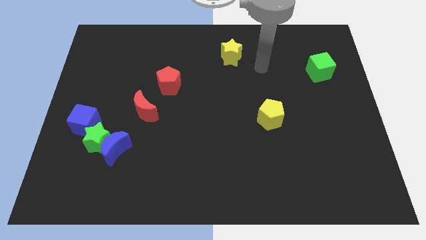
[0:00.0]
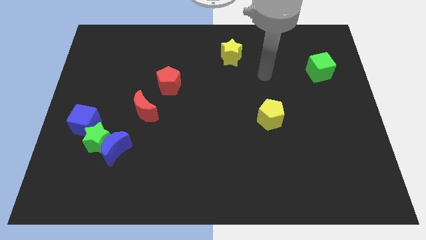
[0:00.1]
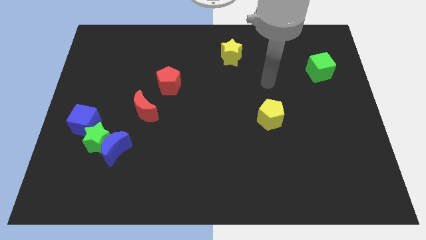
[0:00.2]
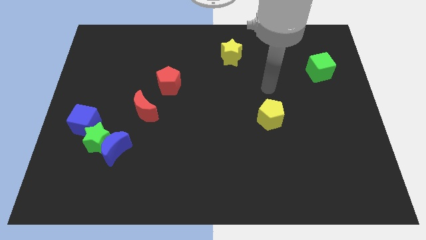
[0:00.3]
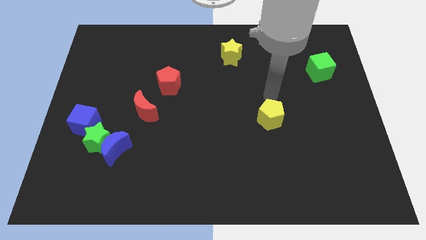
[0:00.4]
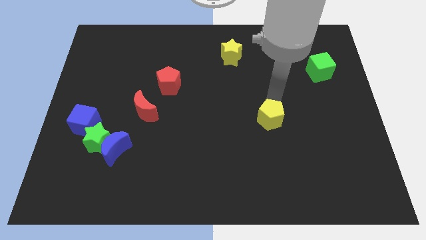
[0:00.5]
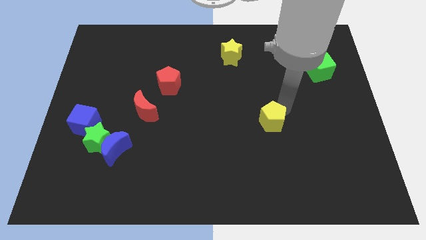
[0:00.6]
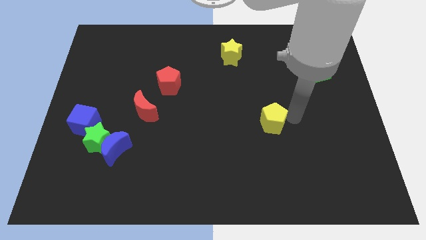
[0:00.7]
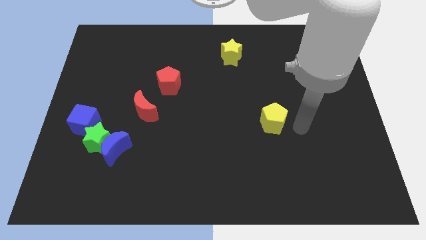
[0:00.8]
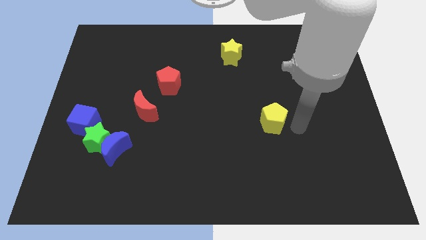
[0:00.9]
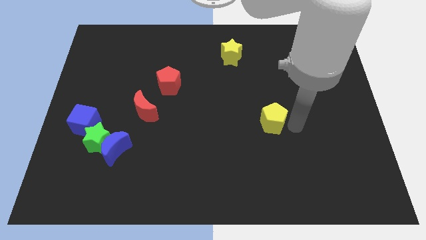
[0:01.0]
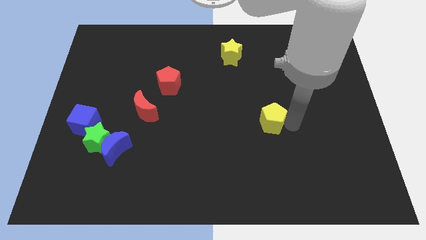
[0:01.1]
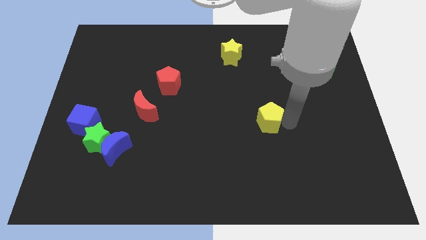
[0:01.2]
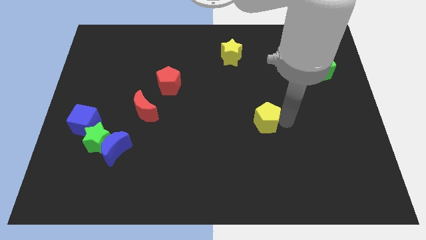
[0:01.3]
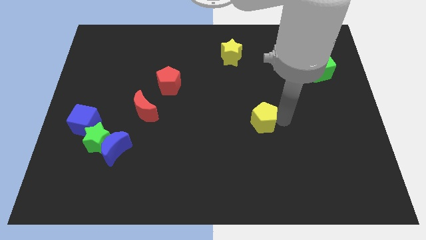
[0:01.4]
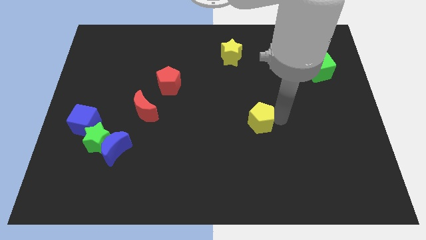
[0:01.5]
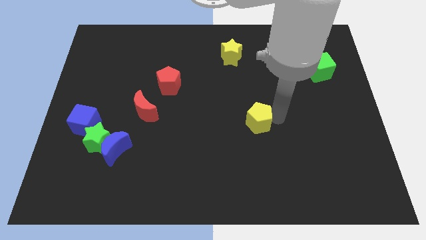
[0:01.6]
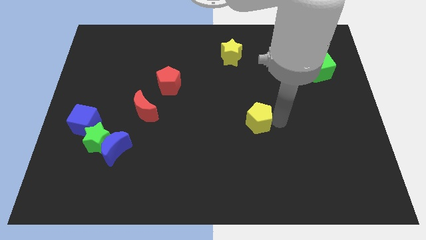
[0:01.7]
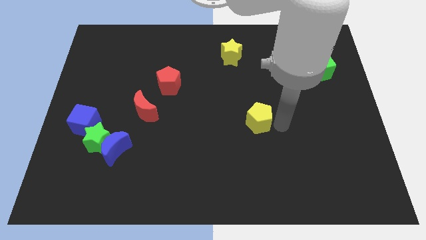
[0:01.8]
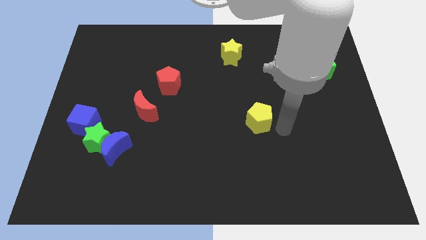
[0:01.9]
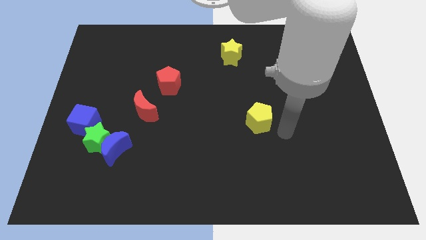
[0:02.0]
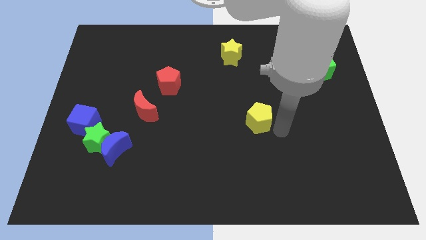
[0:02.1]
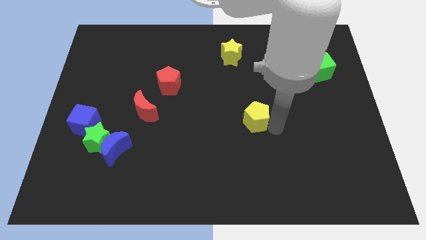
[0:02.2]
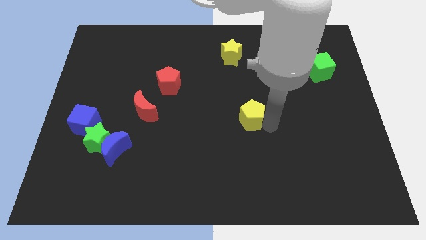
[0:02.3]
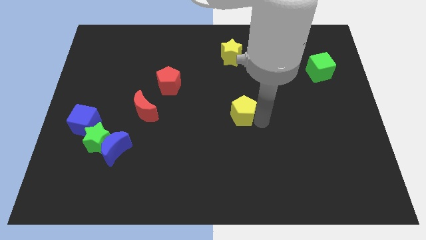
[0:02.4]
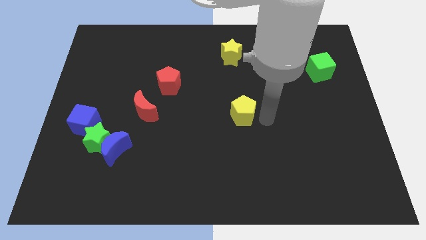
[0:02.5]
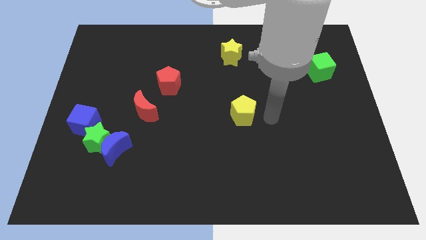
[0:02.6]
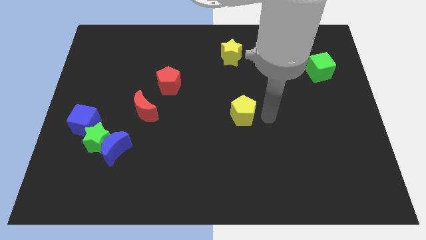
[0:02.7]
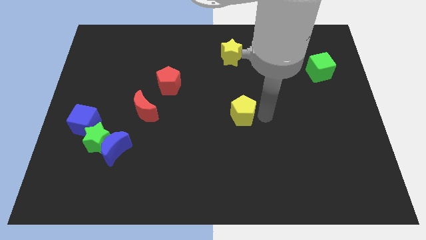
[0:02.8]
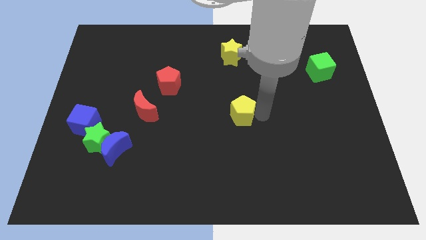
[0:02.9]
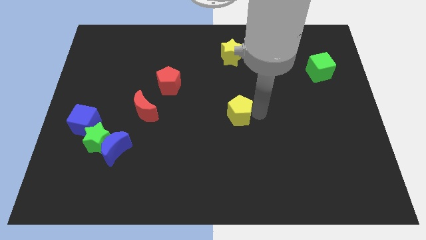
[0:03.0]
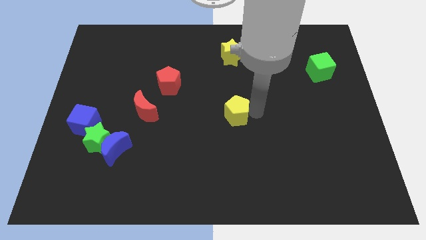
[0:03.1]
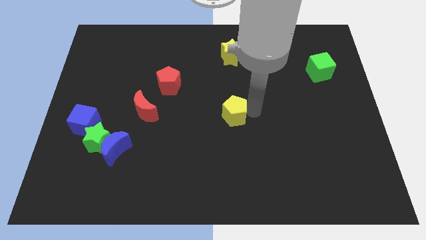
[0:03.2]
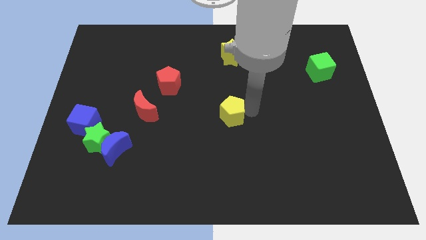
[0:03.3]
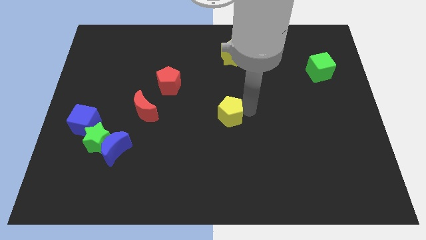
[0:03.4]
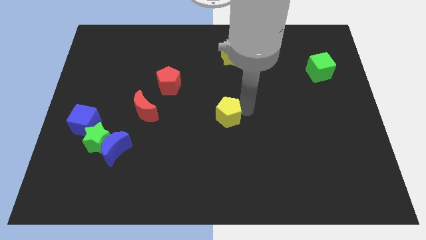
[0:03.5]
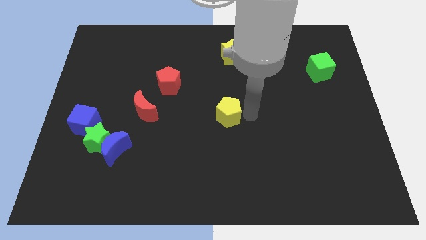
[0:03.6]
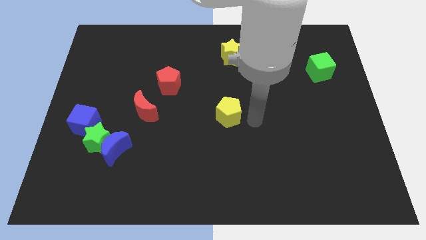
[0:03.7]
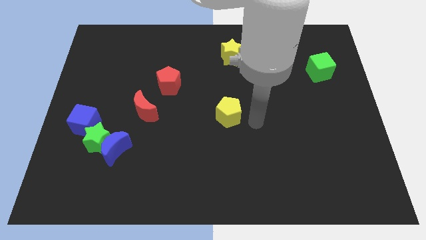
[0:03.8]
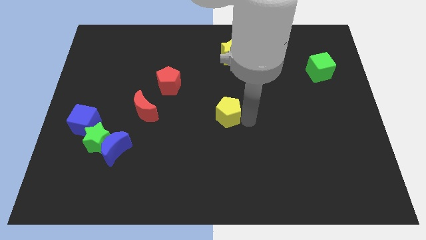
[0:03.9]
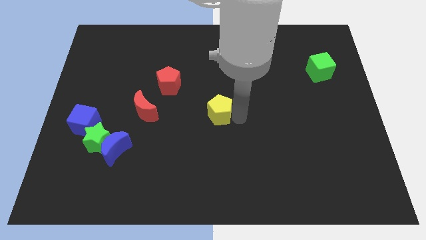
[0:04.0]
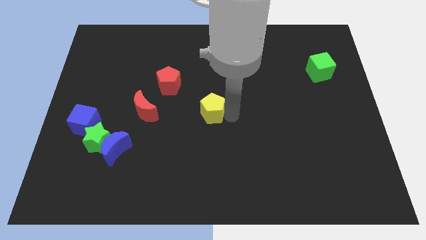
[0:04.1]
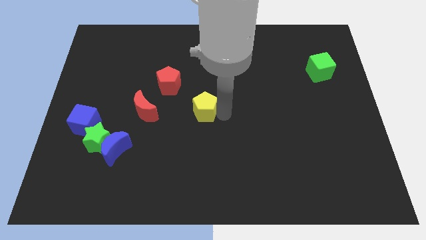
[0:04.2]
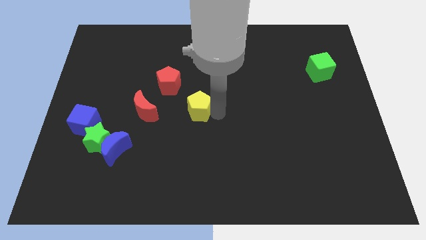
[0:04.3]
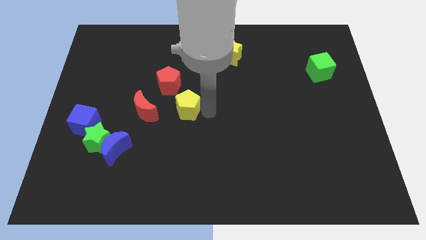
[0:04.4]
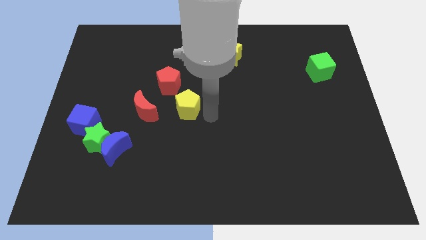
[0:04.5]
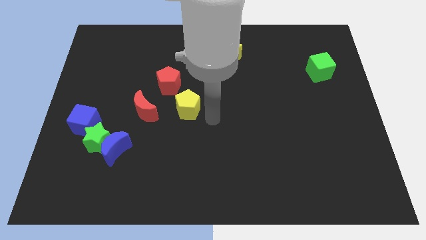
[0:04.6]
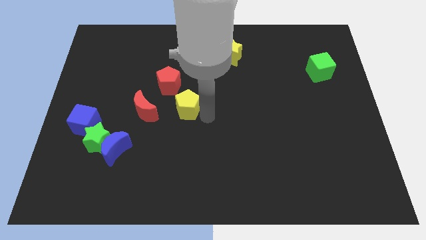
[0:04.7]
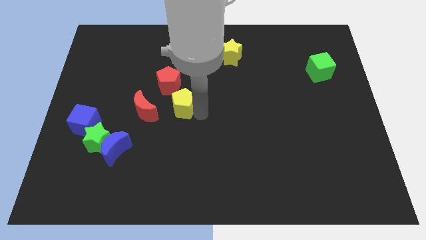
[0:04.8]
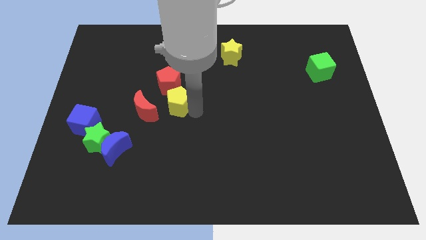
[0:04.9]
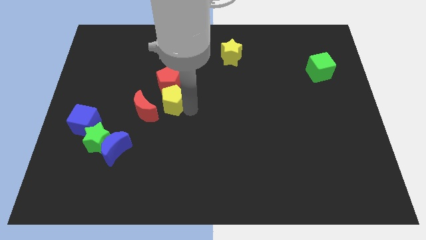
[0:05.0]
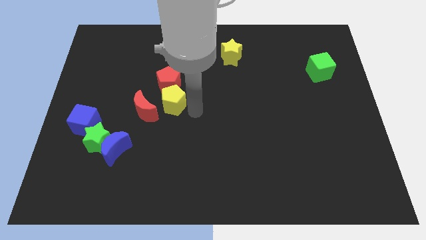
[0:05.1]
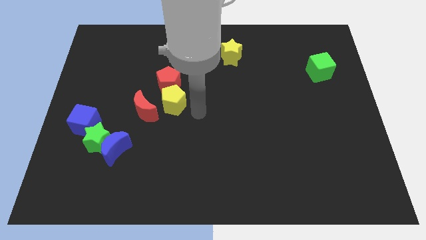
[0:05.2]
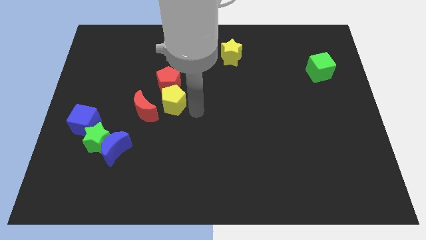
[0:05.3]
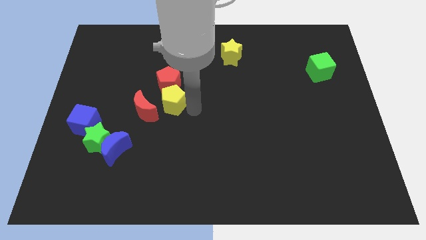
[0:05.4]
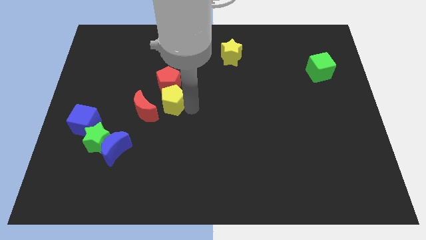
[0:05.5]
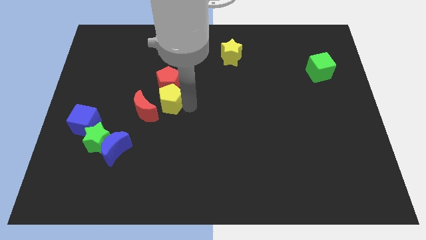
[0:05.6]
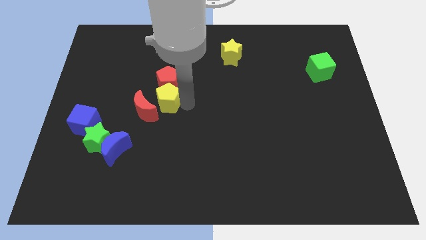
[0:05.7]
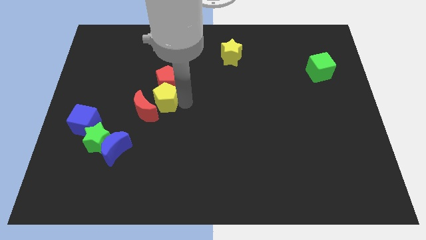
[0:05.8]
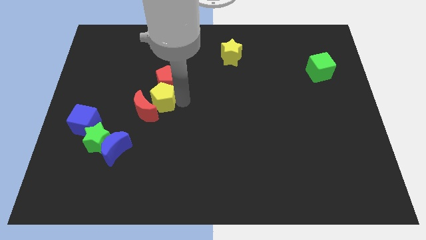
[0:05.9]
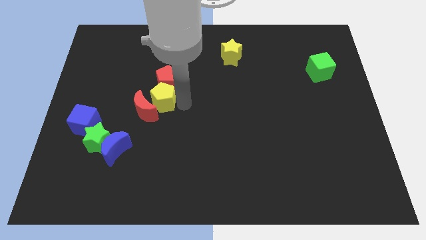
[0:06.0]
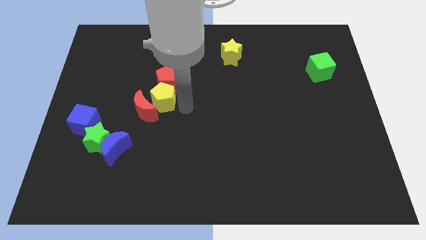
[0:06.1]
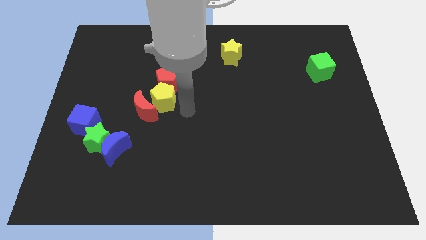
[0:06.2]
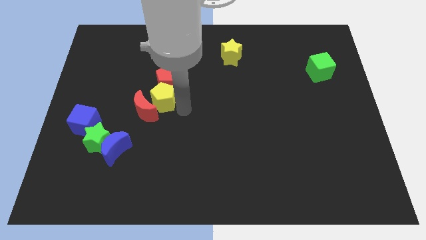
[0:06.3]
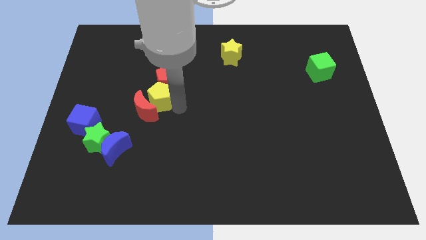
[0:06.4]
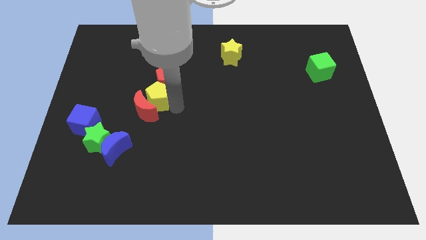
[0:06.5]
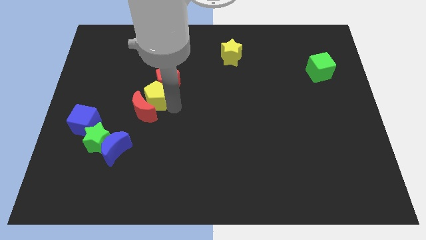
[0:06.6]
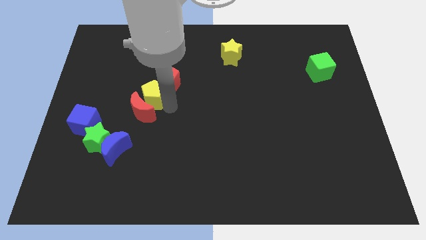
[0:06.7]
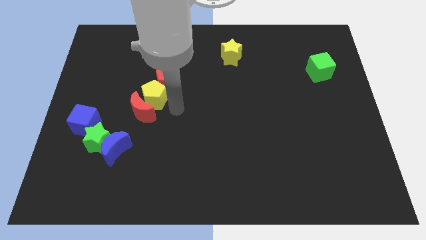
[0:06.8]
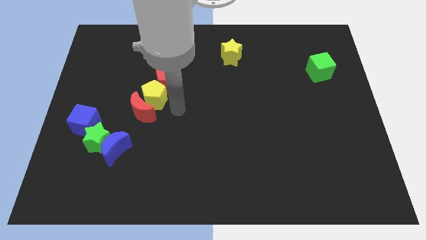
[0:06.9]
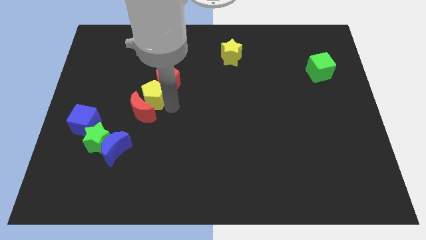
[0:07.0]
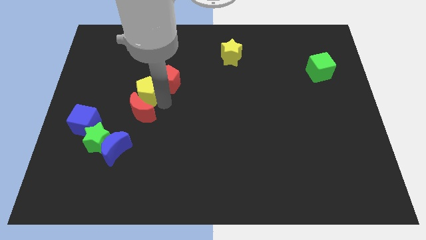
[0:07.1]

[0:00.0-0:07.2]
push the yellow pentagon to the left of the red pentagon
